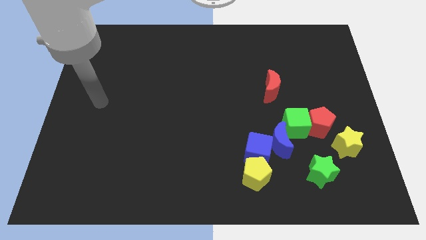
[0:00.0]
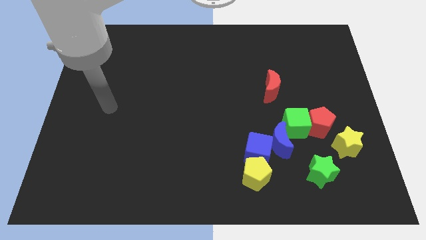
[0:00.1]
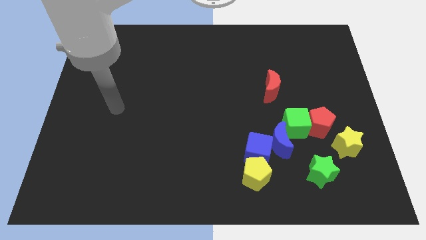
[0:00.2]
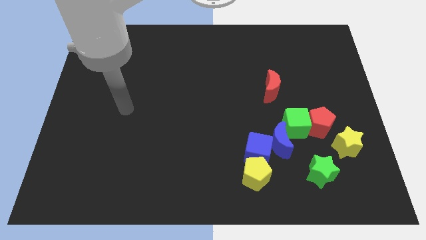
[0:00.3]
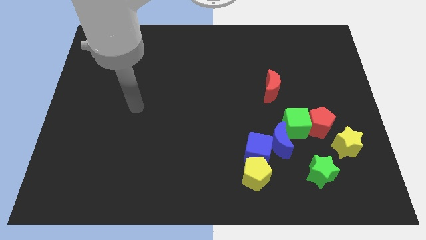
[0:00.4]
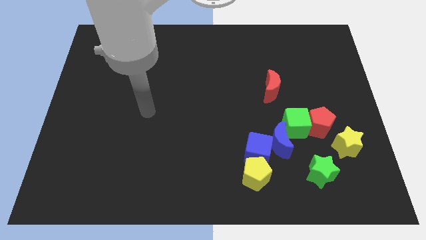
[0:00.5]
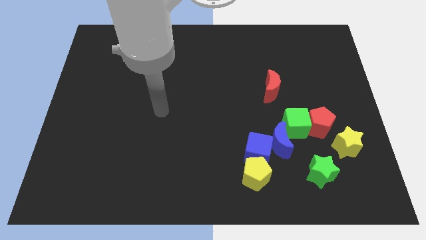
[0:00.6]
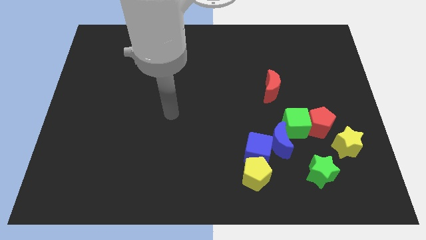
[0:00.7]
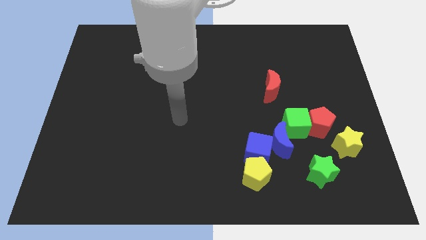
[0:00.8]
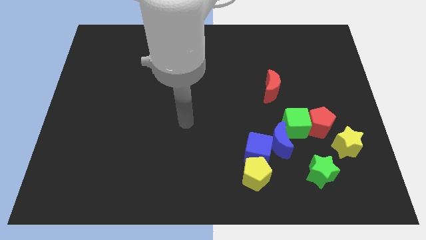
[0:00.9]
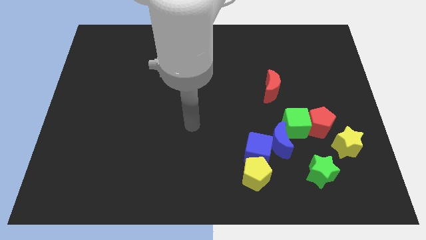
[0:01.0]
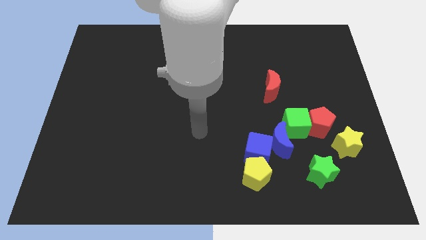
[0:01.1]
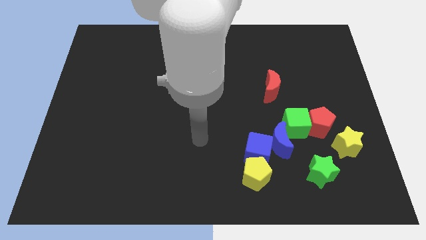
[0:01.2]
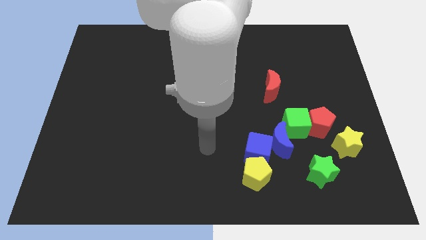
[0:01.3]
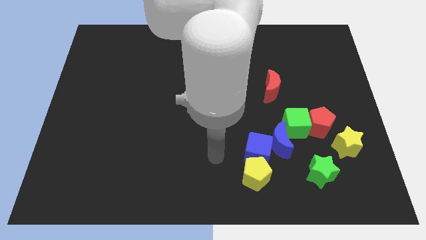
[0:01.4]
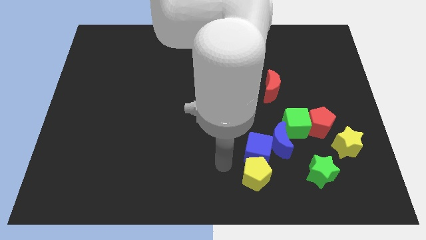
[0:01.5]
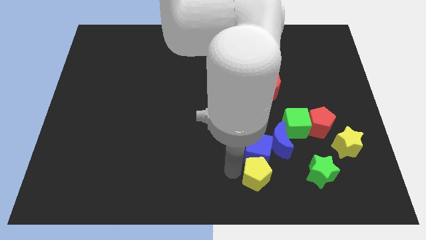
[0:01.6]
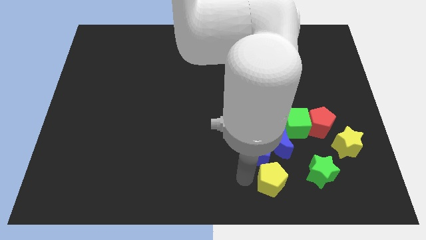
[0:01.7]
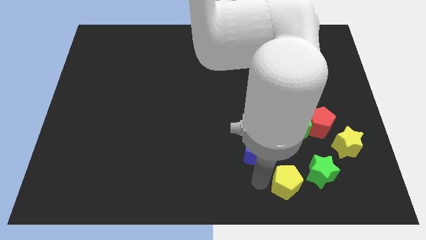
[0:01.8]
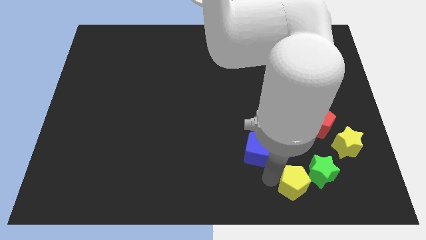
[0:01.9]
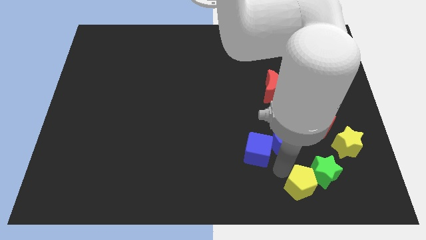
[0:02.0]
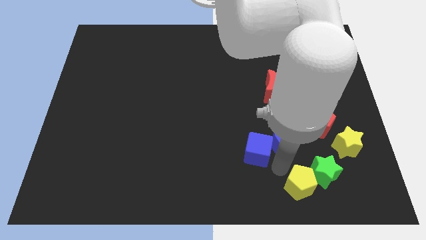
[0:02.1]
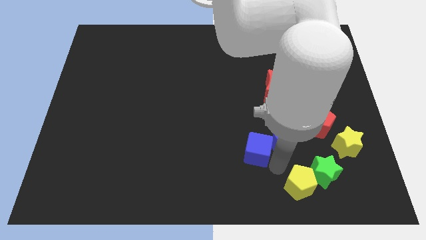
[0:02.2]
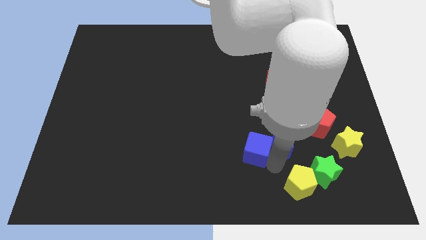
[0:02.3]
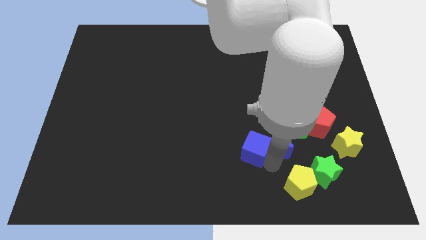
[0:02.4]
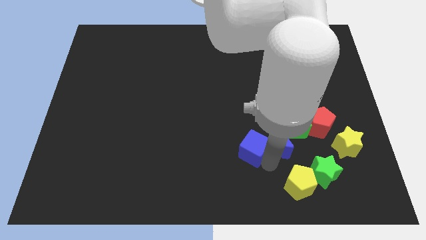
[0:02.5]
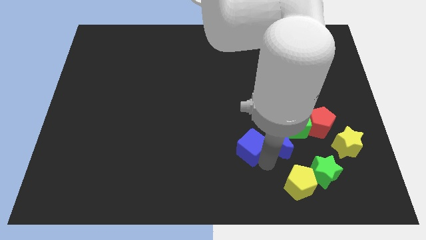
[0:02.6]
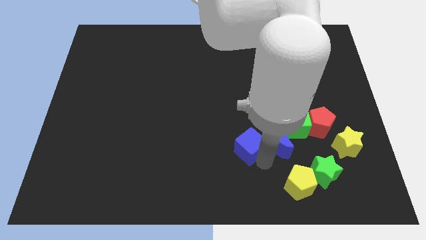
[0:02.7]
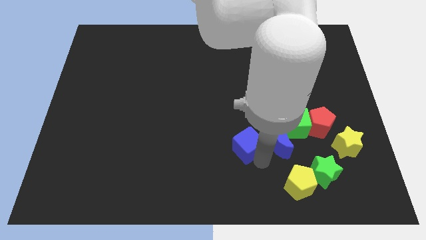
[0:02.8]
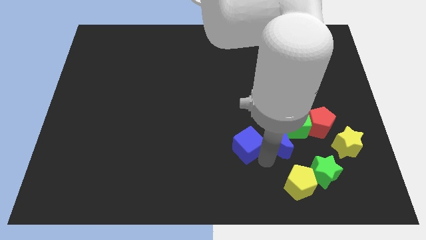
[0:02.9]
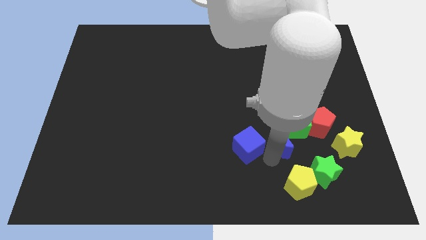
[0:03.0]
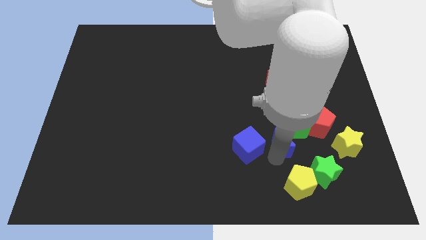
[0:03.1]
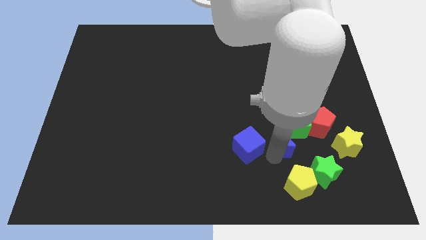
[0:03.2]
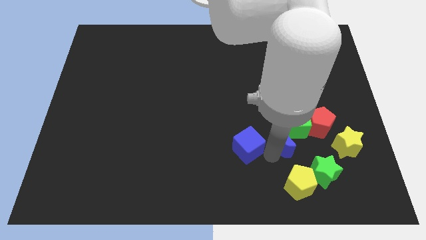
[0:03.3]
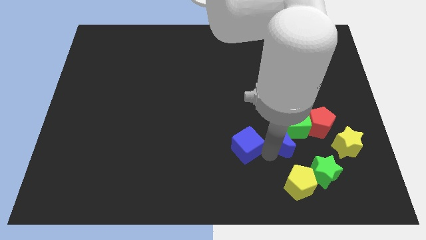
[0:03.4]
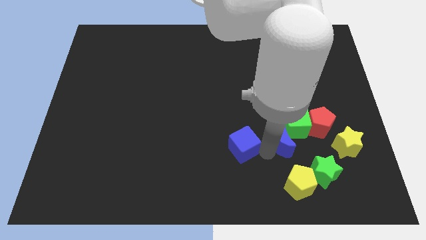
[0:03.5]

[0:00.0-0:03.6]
move the blue cube away from the blue moon and yellow pentagon

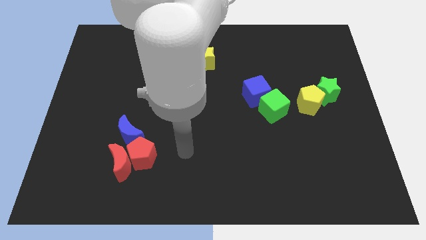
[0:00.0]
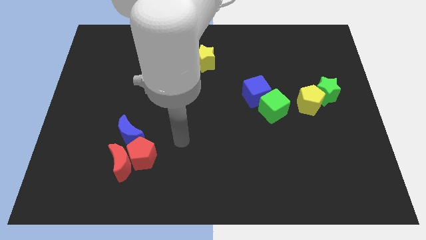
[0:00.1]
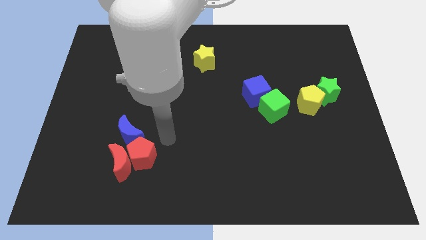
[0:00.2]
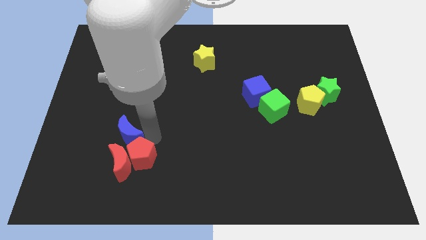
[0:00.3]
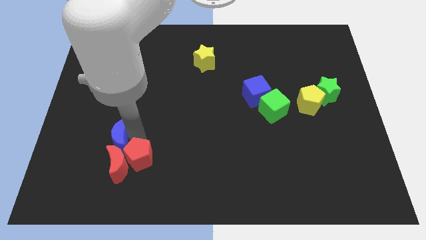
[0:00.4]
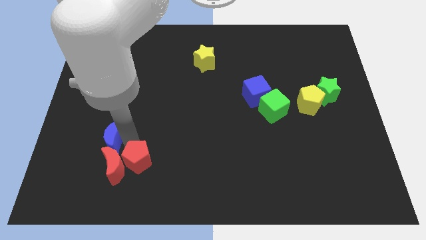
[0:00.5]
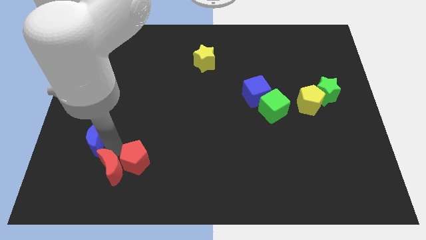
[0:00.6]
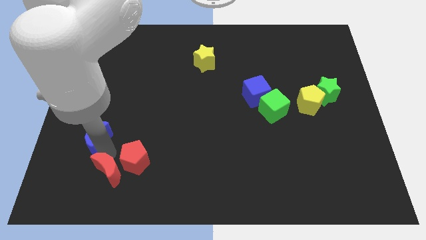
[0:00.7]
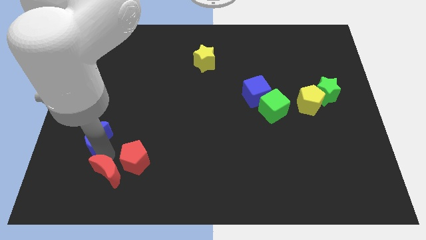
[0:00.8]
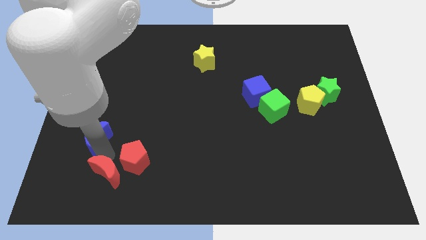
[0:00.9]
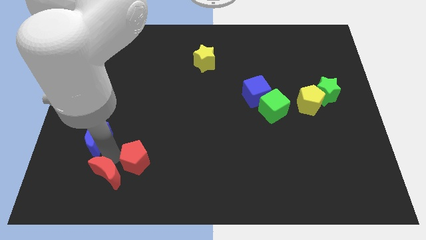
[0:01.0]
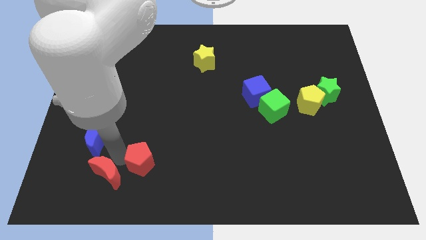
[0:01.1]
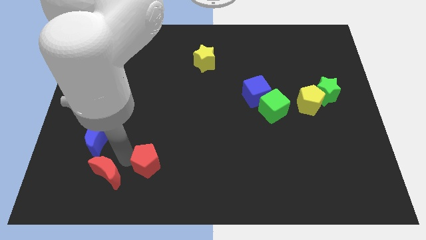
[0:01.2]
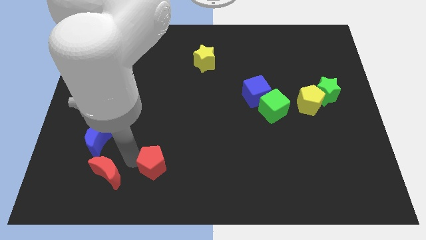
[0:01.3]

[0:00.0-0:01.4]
pull the red pentagon apart from the red moon and blue moon

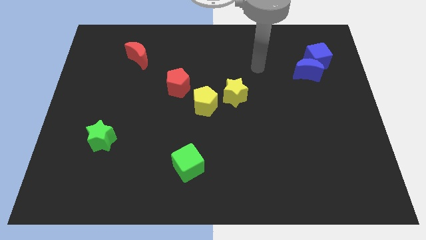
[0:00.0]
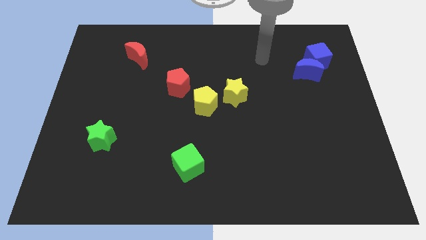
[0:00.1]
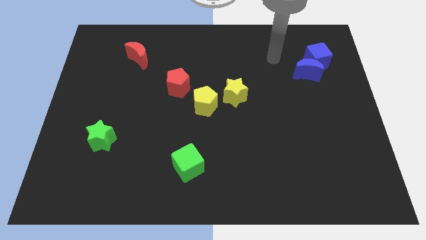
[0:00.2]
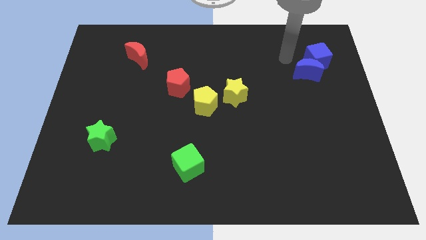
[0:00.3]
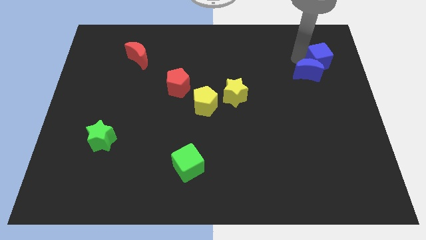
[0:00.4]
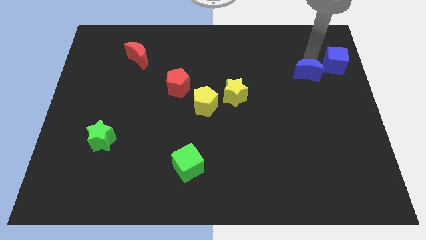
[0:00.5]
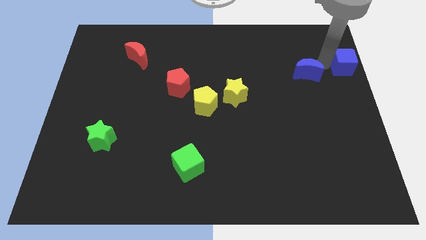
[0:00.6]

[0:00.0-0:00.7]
move the blue moon away from the blue cube

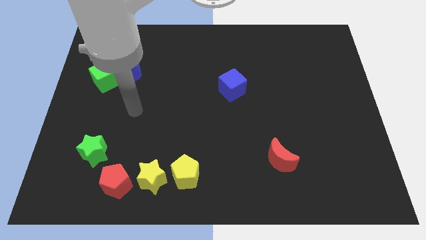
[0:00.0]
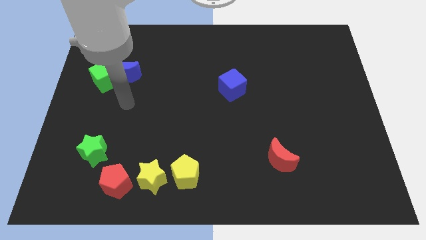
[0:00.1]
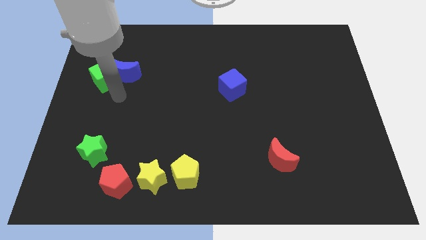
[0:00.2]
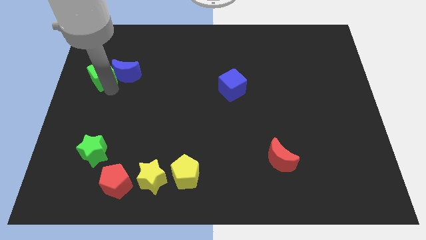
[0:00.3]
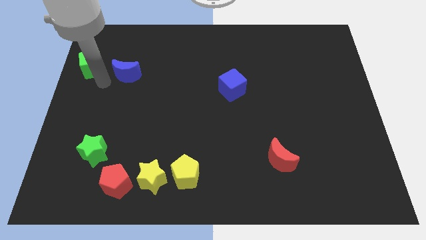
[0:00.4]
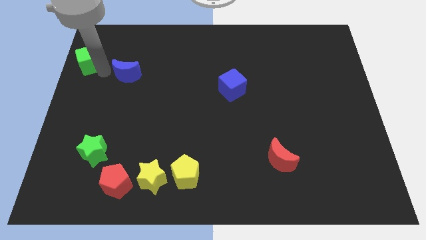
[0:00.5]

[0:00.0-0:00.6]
pull the blue moon apart from the green cube

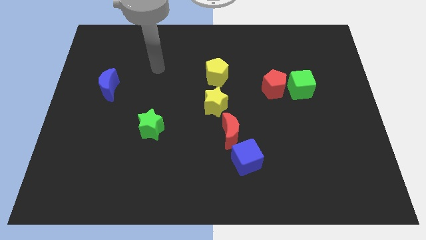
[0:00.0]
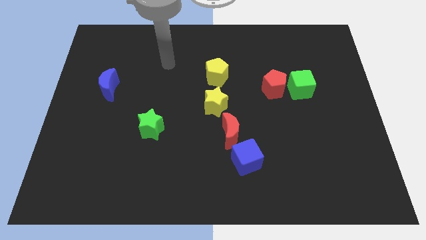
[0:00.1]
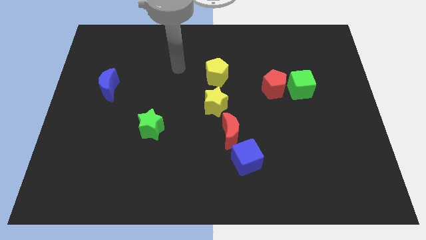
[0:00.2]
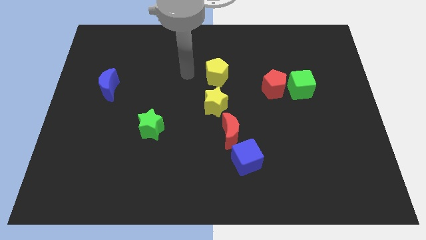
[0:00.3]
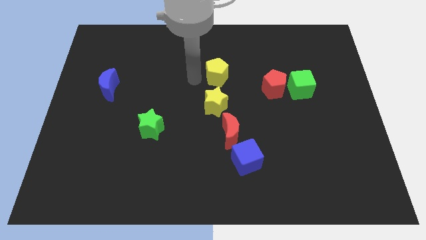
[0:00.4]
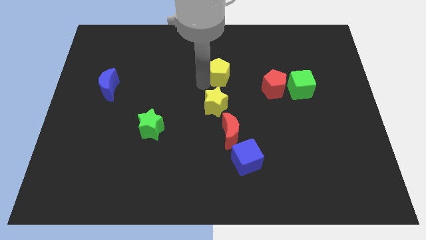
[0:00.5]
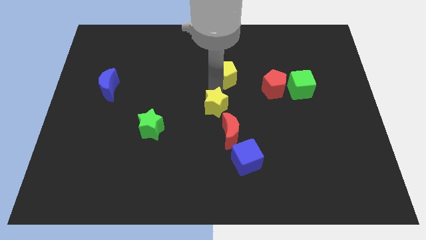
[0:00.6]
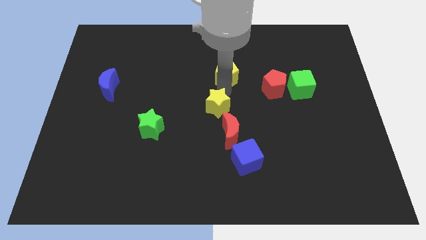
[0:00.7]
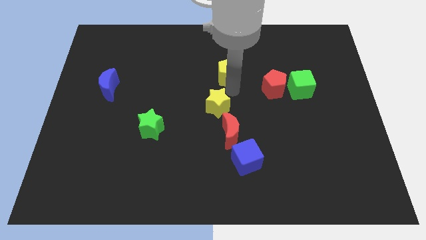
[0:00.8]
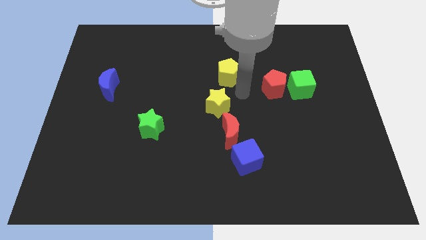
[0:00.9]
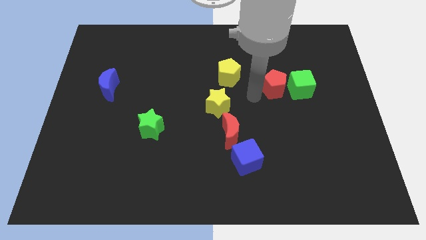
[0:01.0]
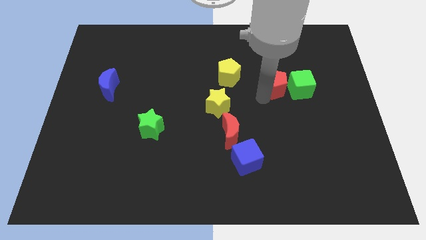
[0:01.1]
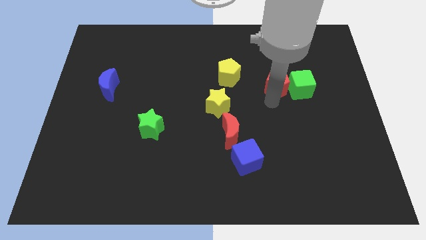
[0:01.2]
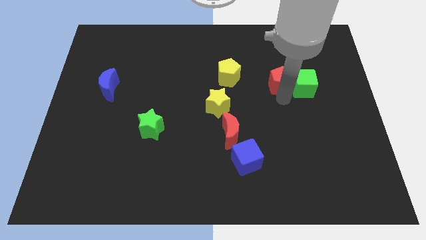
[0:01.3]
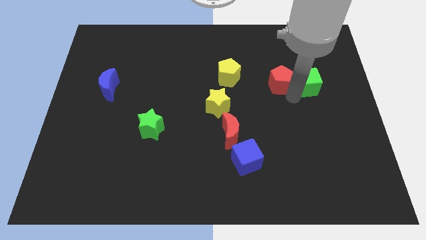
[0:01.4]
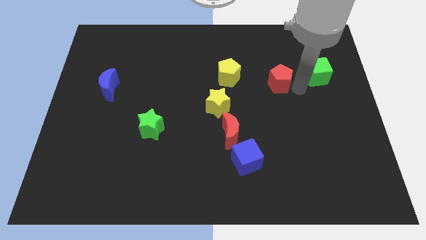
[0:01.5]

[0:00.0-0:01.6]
separate the red pentagon from the green cube

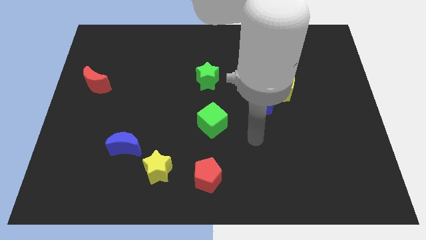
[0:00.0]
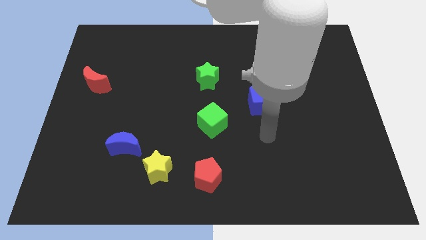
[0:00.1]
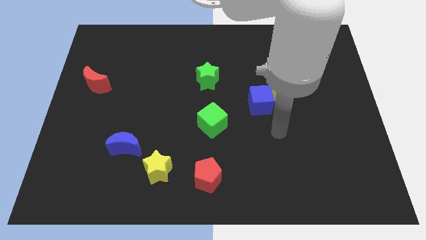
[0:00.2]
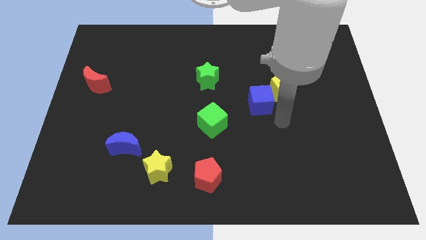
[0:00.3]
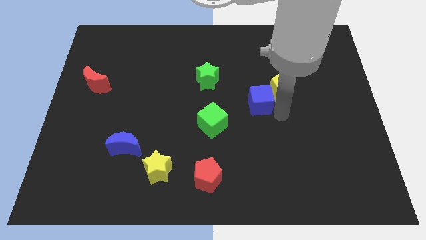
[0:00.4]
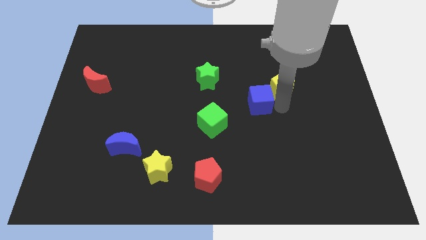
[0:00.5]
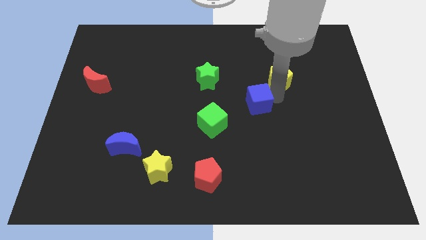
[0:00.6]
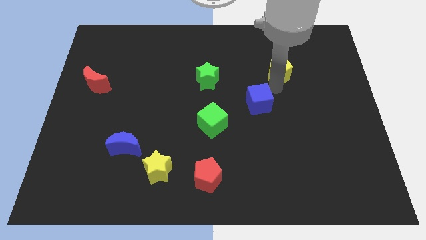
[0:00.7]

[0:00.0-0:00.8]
move the blue cube away from the yellow pentagon

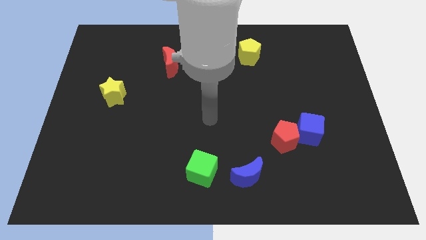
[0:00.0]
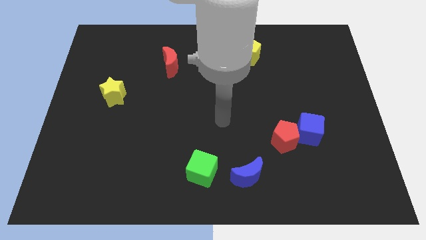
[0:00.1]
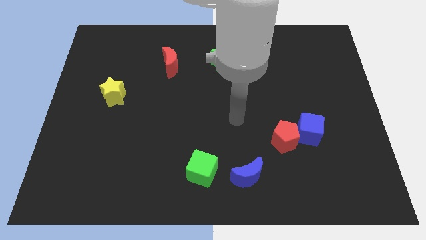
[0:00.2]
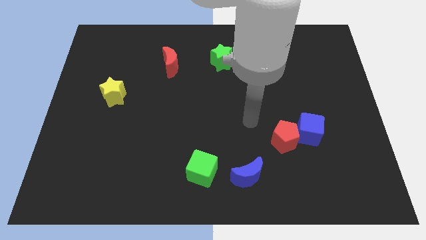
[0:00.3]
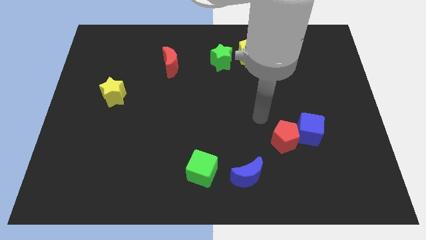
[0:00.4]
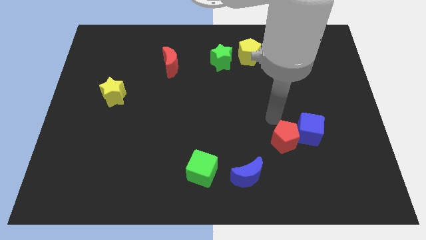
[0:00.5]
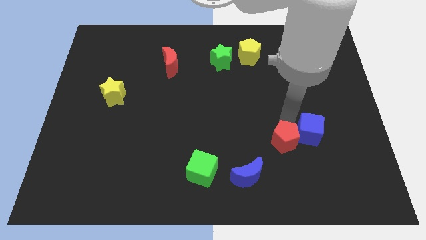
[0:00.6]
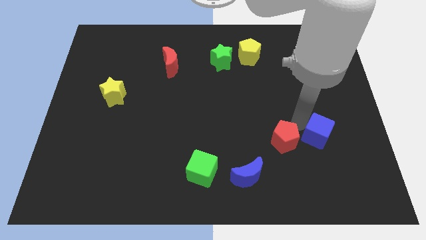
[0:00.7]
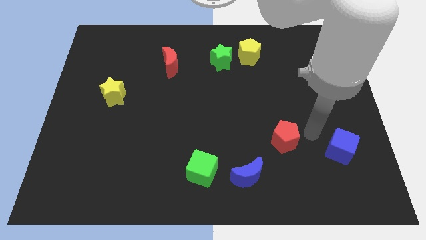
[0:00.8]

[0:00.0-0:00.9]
separate the red pentagon from the blue cube
